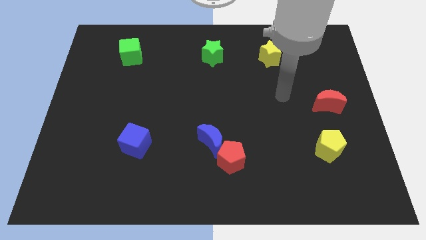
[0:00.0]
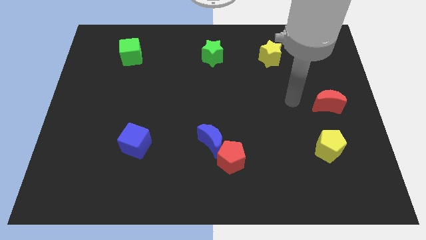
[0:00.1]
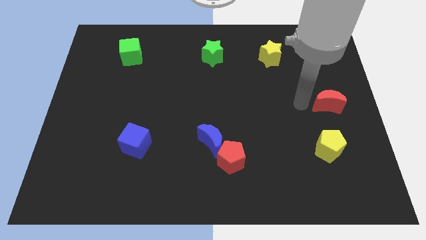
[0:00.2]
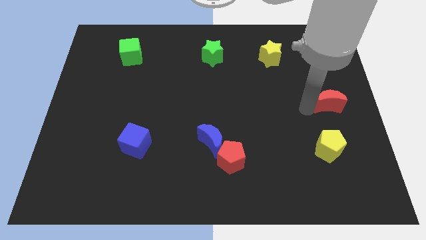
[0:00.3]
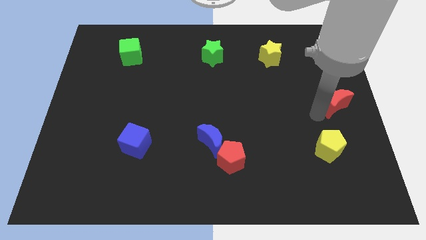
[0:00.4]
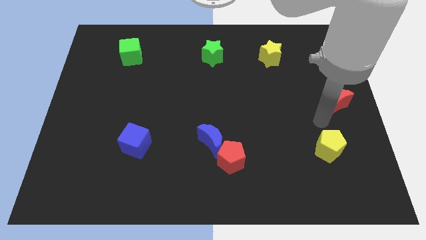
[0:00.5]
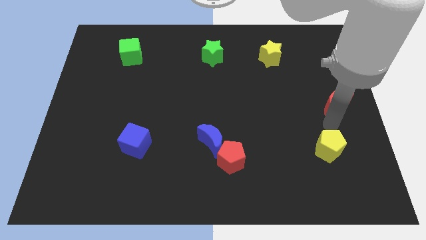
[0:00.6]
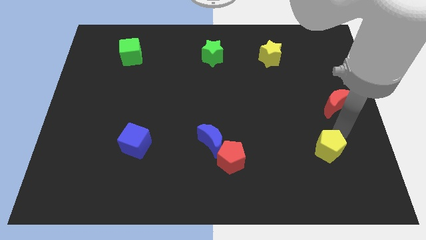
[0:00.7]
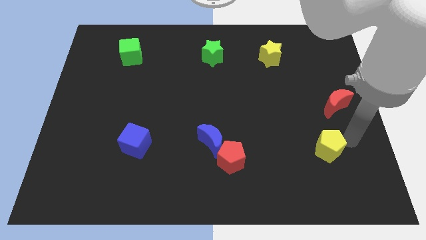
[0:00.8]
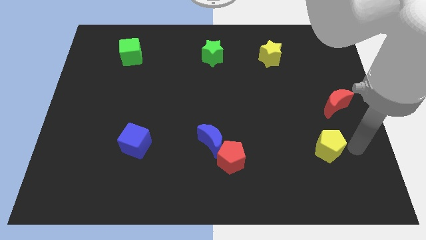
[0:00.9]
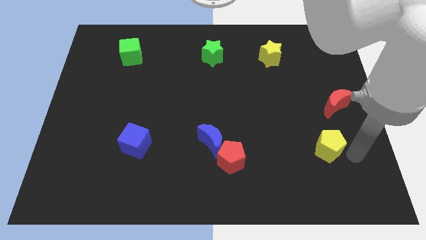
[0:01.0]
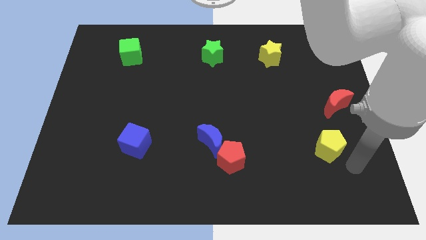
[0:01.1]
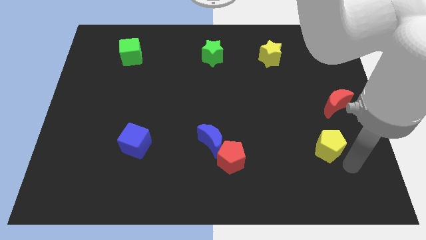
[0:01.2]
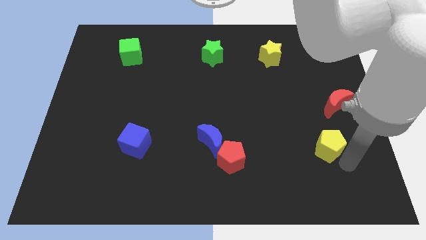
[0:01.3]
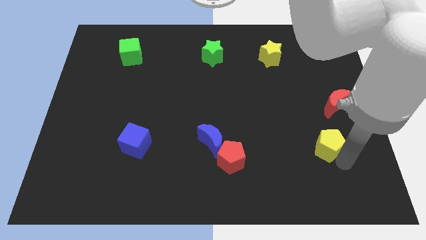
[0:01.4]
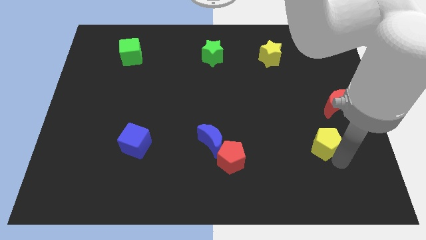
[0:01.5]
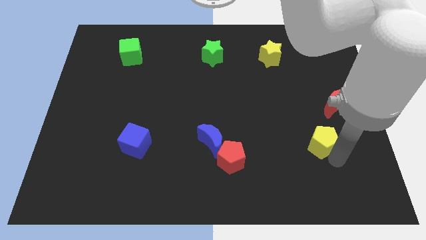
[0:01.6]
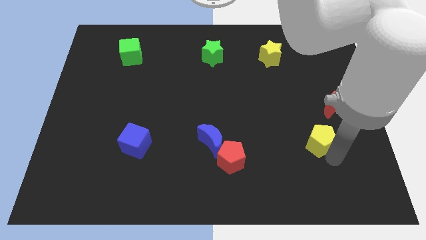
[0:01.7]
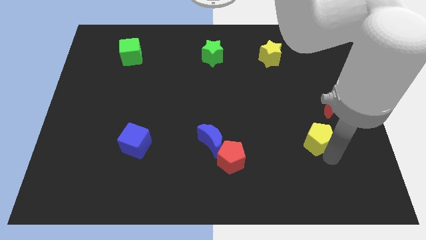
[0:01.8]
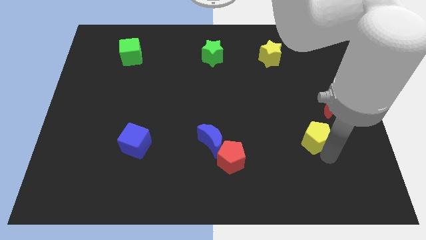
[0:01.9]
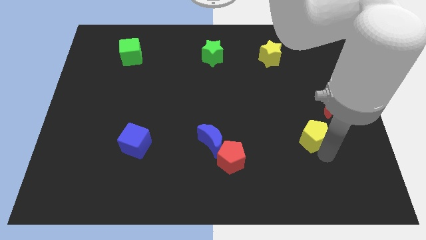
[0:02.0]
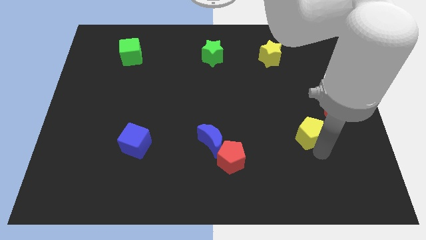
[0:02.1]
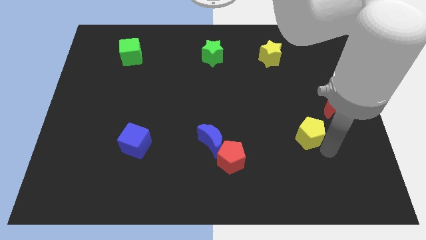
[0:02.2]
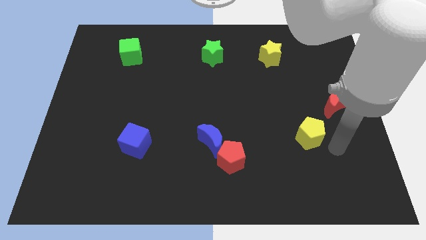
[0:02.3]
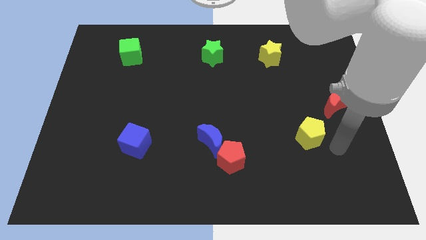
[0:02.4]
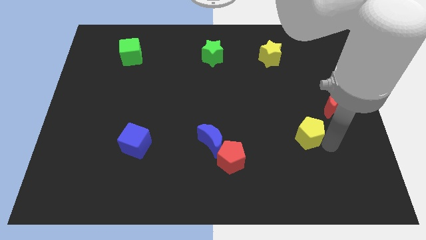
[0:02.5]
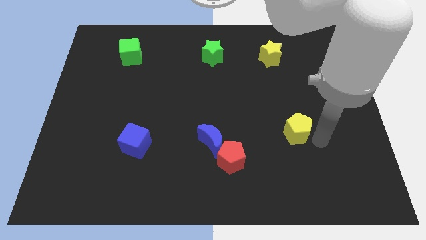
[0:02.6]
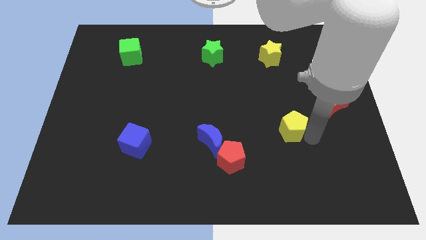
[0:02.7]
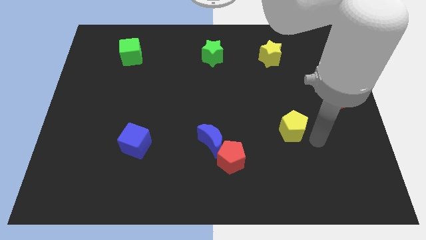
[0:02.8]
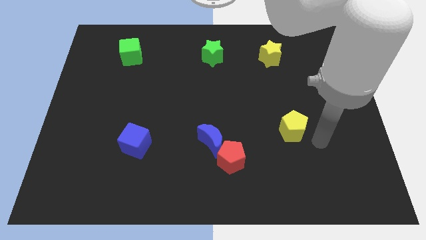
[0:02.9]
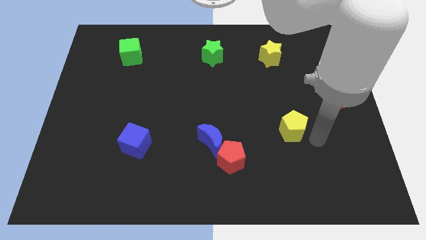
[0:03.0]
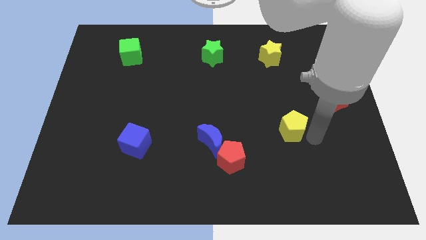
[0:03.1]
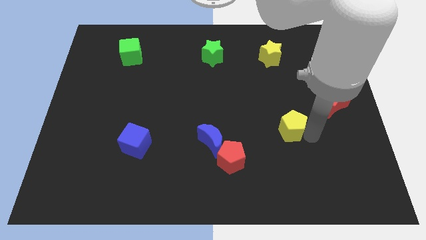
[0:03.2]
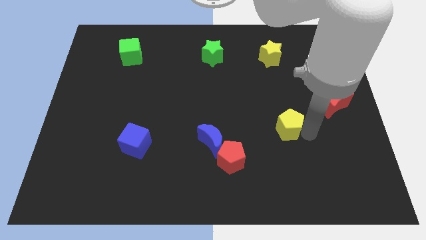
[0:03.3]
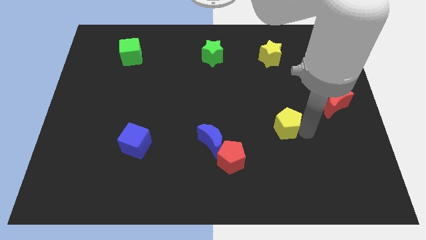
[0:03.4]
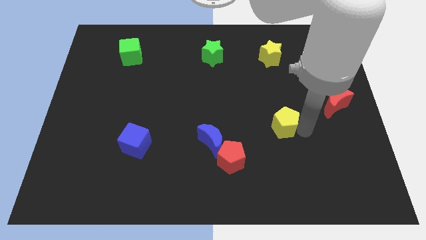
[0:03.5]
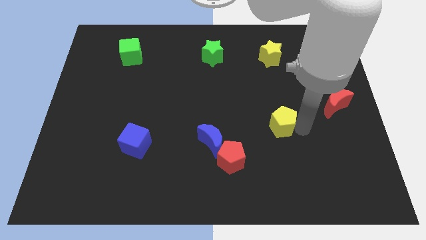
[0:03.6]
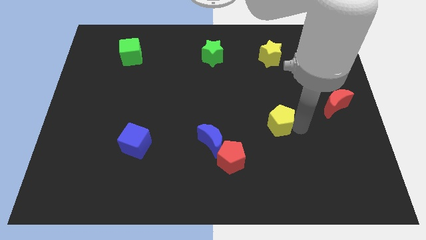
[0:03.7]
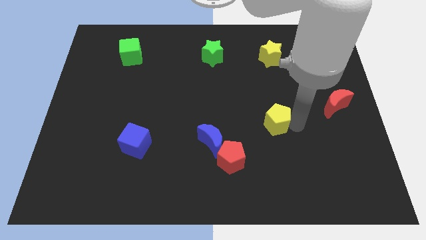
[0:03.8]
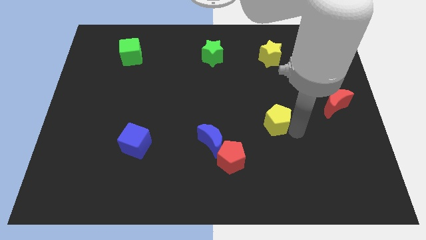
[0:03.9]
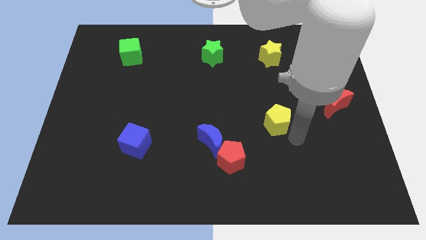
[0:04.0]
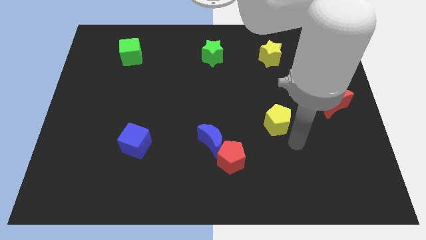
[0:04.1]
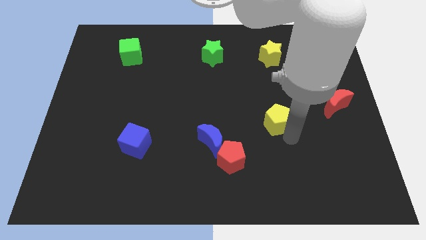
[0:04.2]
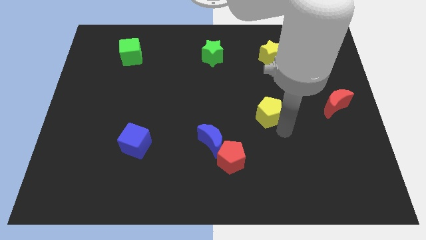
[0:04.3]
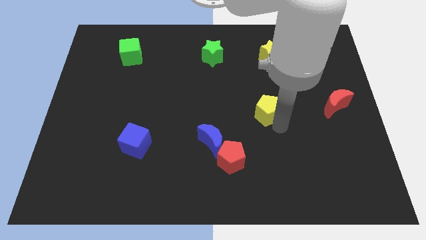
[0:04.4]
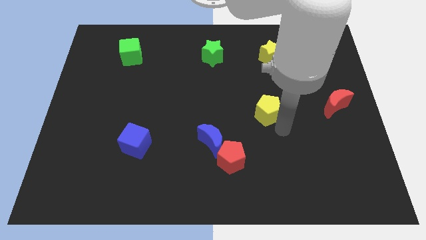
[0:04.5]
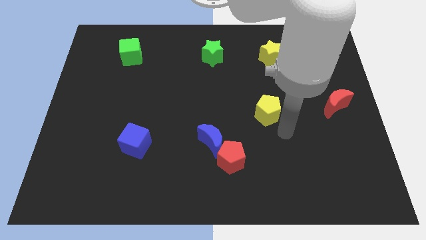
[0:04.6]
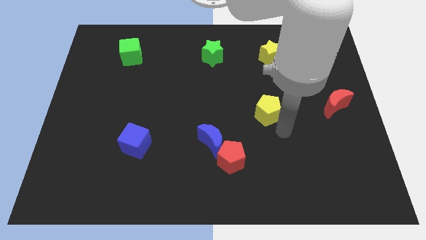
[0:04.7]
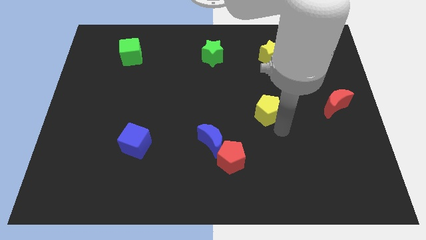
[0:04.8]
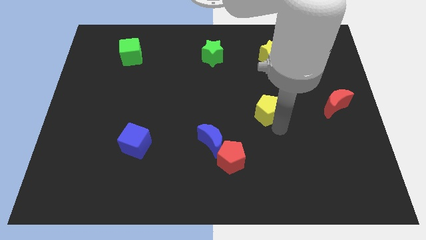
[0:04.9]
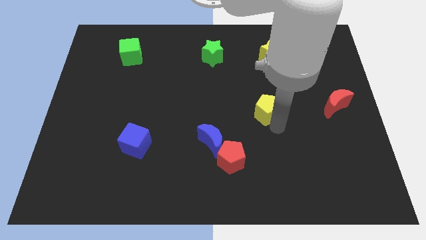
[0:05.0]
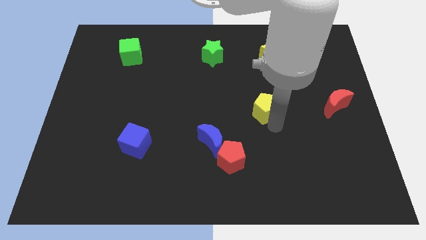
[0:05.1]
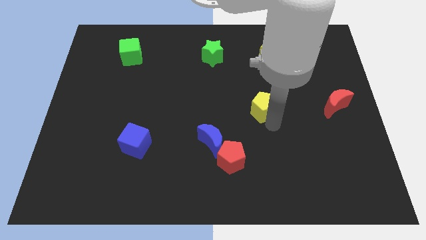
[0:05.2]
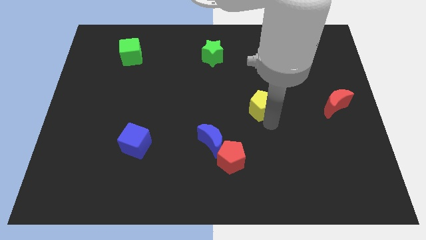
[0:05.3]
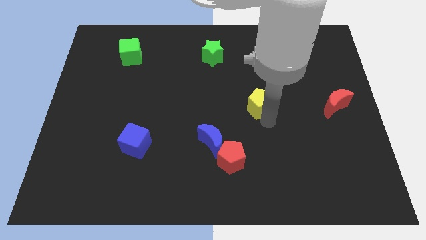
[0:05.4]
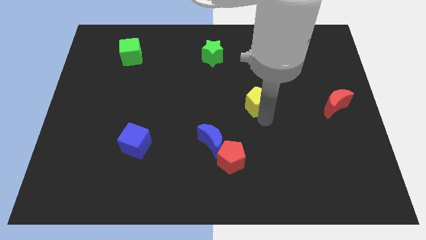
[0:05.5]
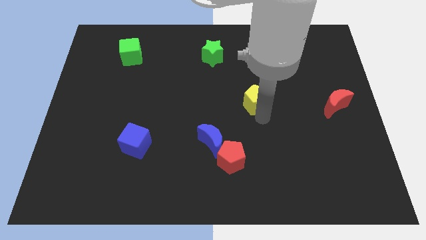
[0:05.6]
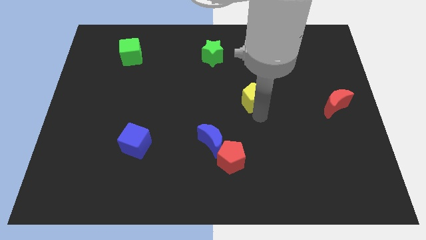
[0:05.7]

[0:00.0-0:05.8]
push the yellow pentagon diagonally up and left

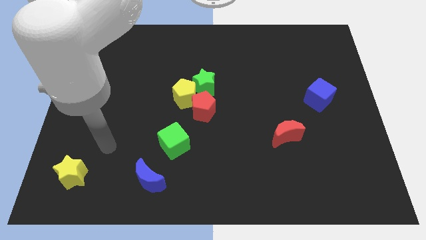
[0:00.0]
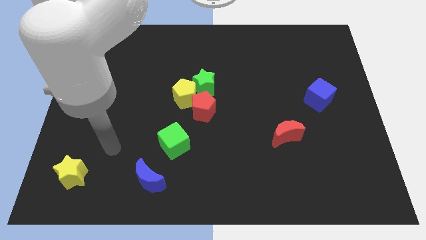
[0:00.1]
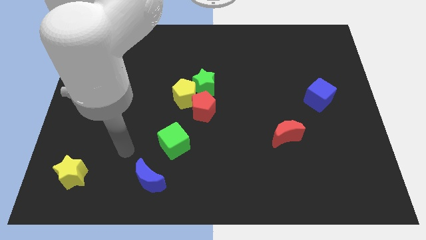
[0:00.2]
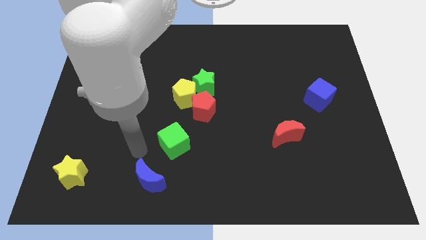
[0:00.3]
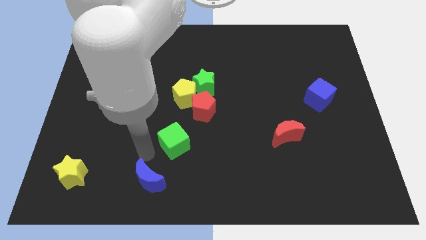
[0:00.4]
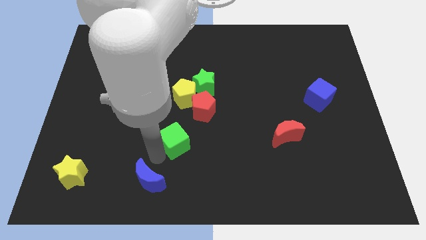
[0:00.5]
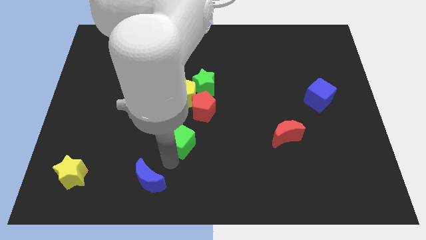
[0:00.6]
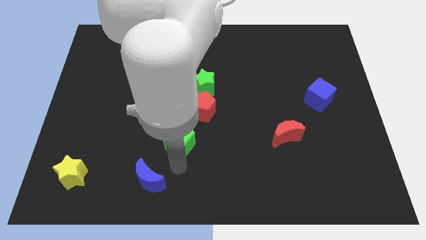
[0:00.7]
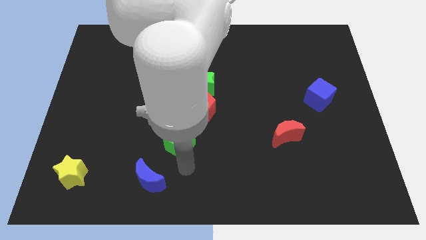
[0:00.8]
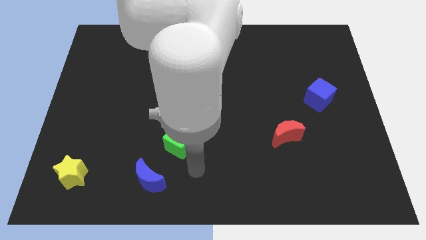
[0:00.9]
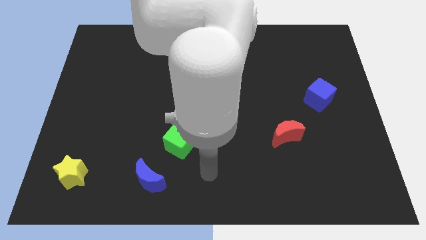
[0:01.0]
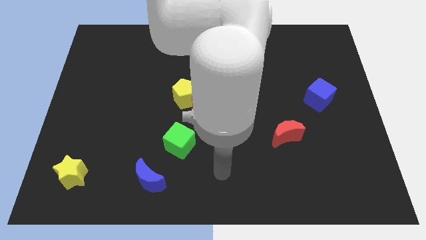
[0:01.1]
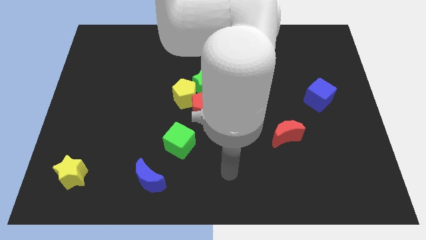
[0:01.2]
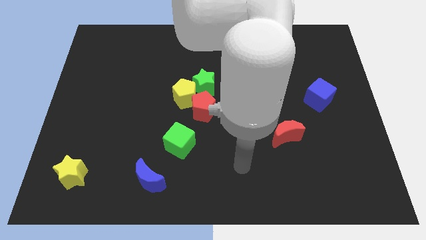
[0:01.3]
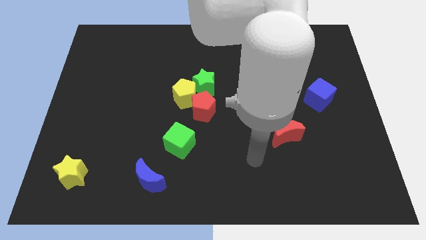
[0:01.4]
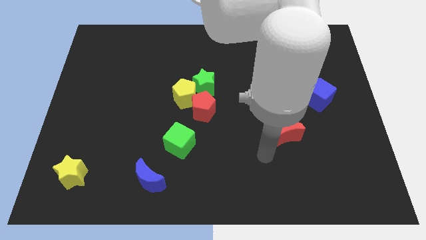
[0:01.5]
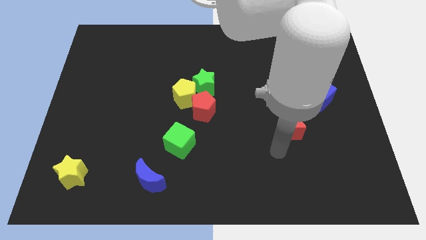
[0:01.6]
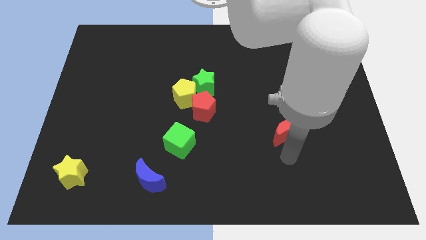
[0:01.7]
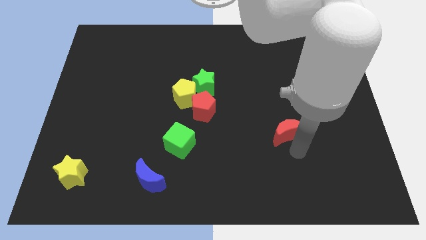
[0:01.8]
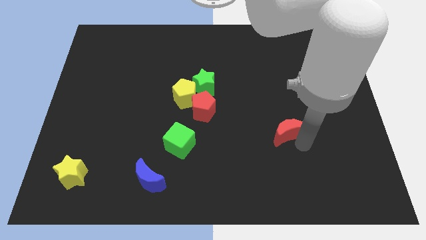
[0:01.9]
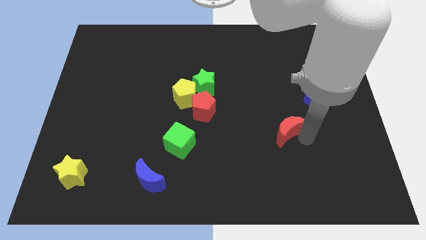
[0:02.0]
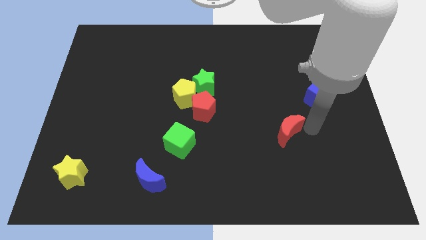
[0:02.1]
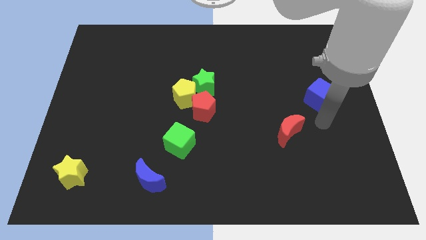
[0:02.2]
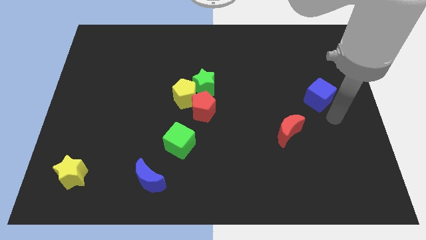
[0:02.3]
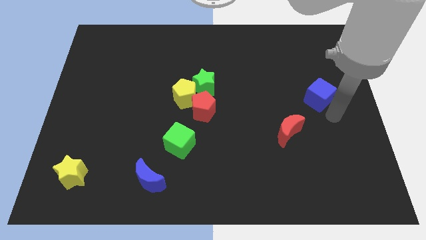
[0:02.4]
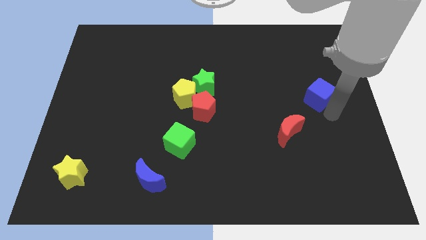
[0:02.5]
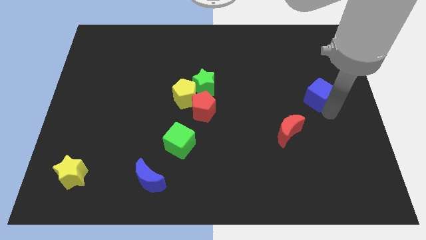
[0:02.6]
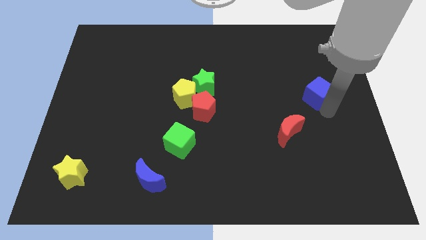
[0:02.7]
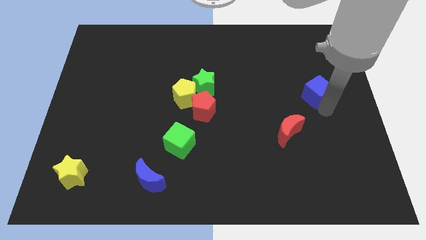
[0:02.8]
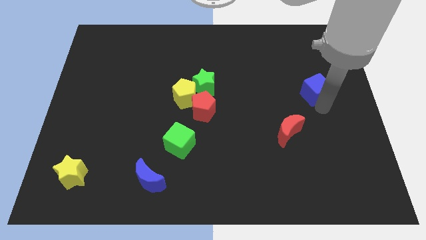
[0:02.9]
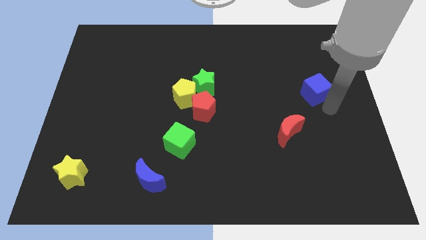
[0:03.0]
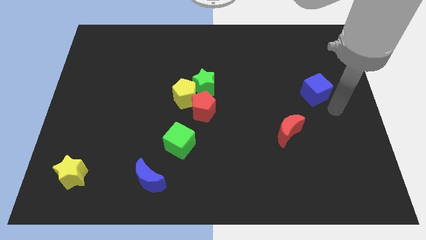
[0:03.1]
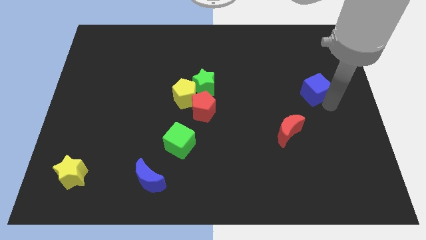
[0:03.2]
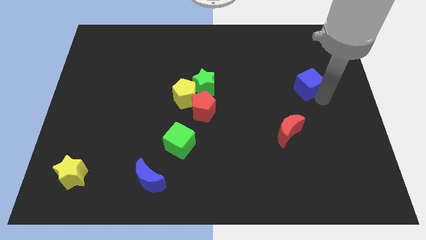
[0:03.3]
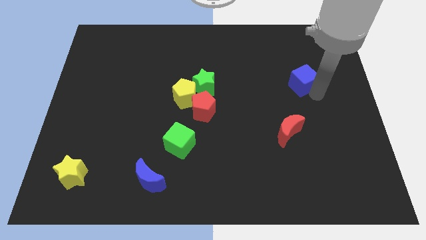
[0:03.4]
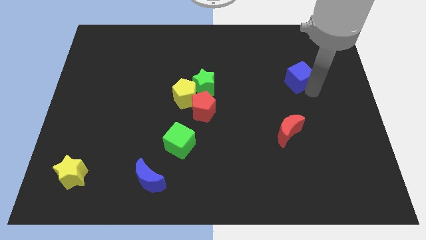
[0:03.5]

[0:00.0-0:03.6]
slide the blue cube a little up and to the left diagonally
